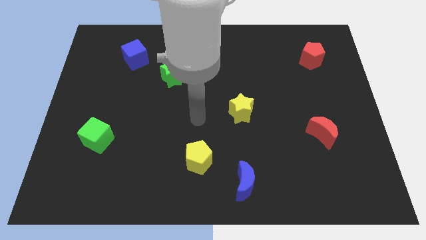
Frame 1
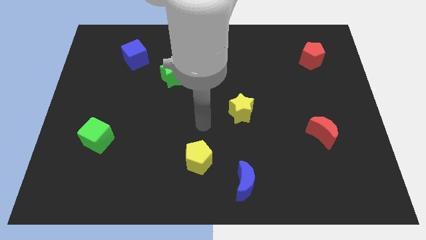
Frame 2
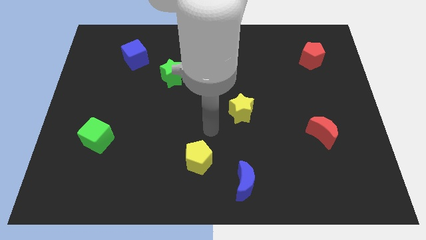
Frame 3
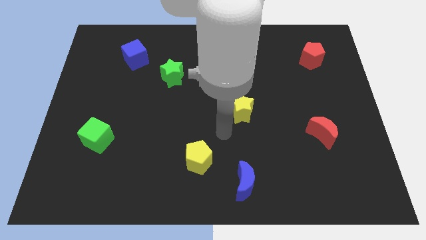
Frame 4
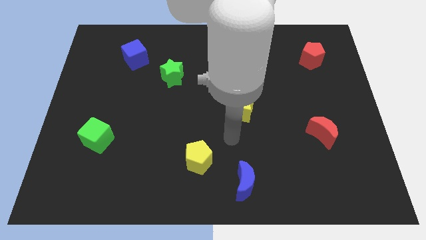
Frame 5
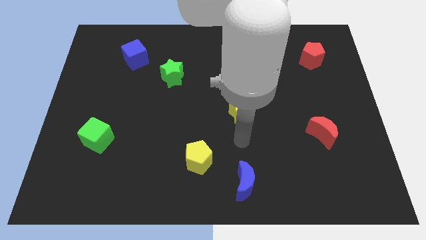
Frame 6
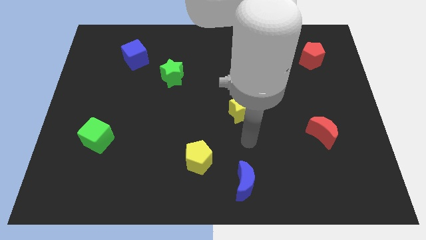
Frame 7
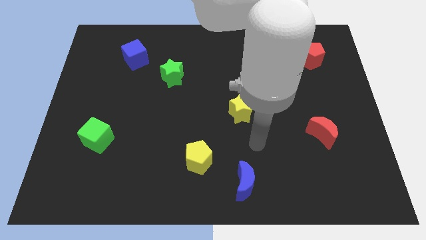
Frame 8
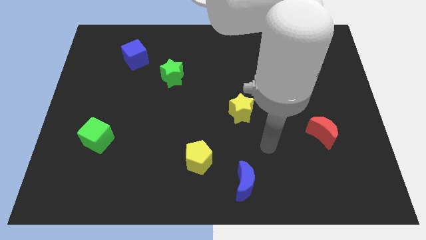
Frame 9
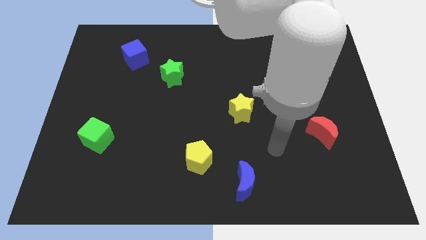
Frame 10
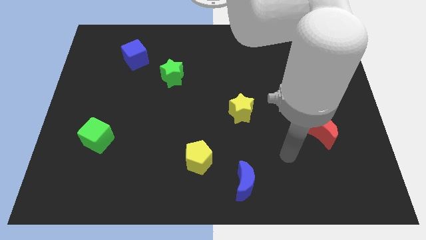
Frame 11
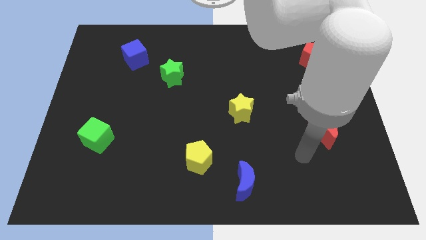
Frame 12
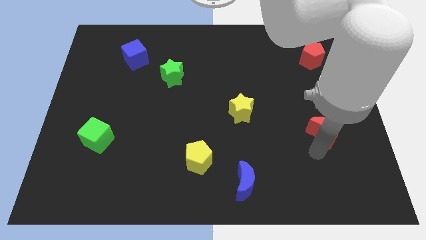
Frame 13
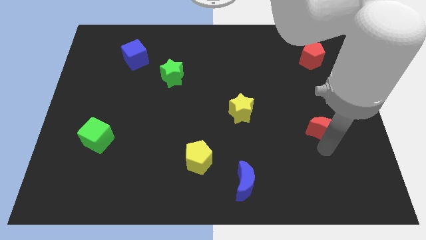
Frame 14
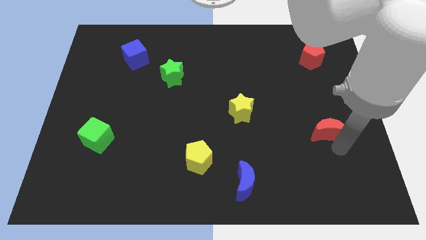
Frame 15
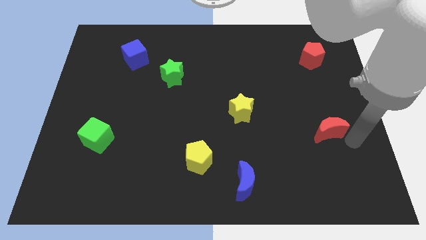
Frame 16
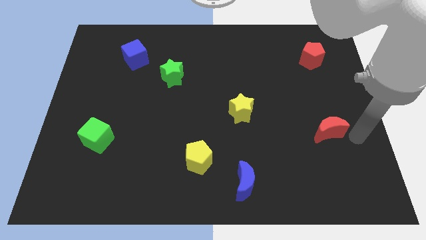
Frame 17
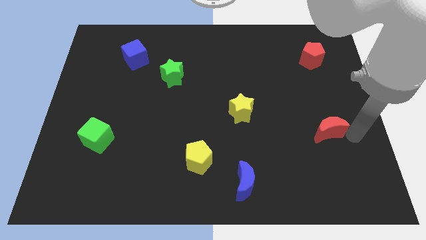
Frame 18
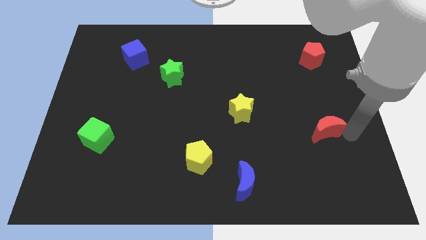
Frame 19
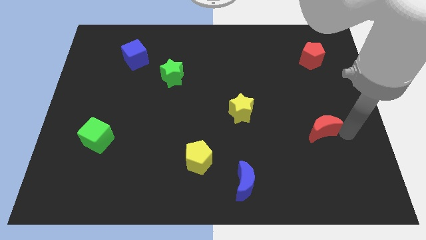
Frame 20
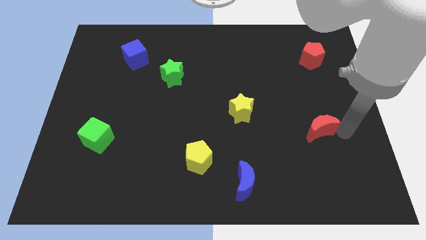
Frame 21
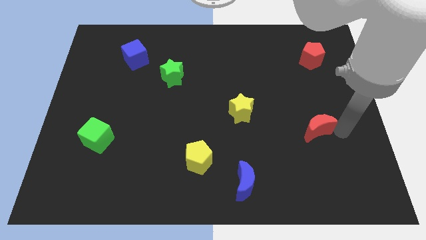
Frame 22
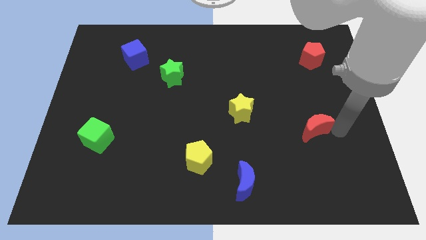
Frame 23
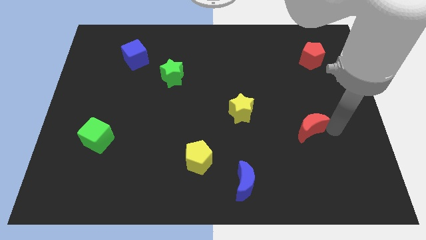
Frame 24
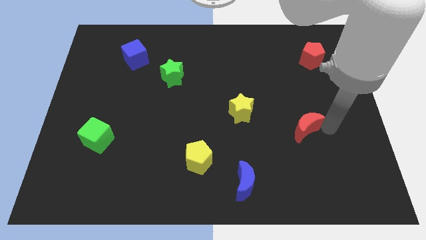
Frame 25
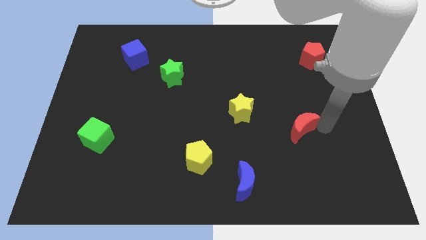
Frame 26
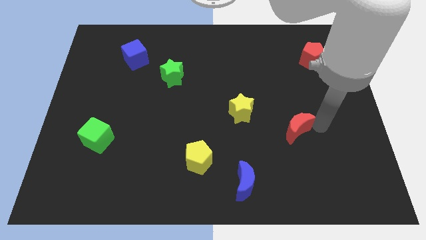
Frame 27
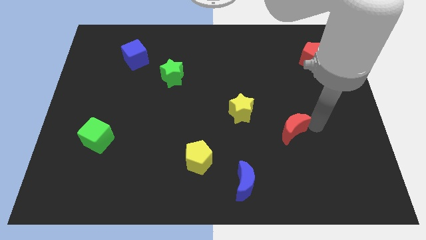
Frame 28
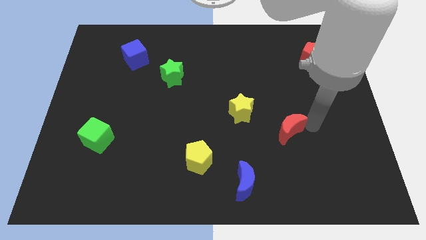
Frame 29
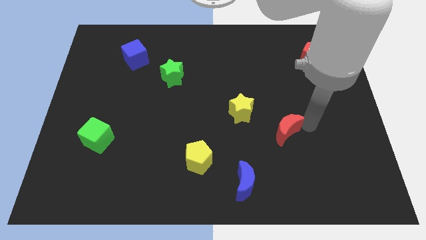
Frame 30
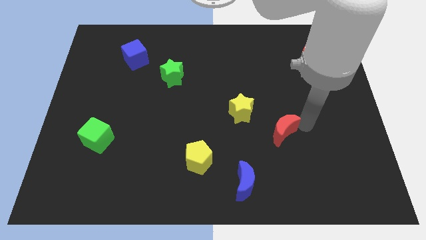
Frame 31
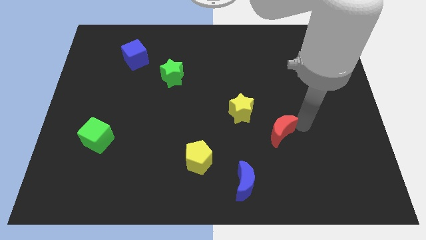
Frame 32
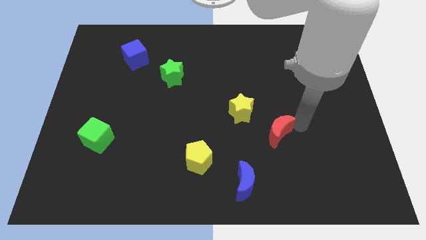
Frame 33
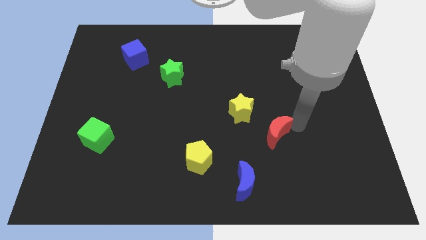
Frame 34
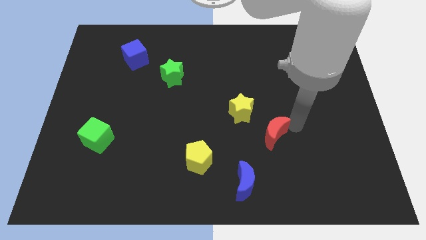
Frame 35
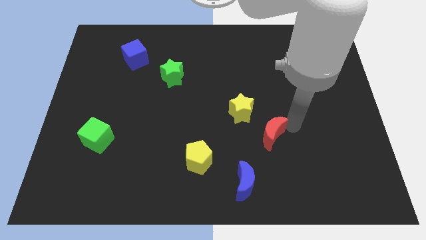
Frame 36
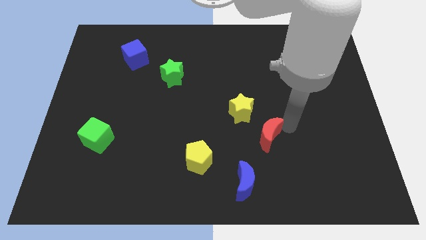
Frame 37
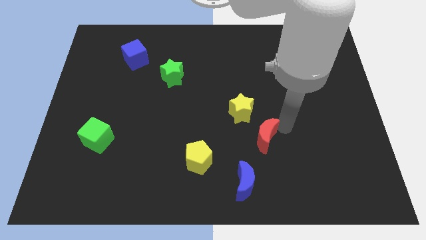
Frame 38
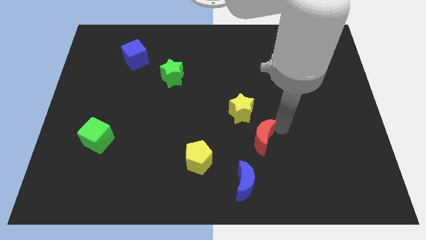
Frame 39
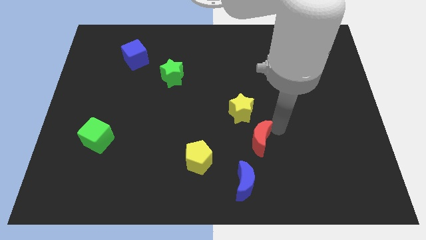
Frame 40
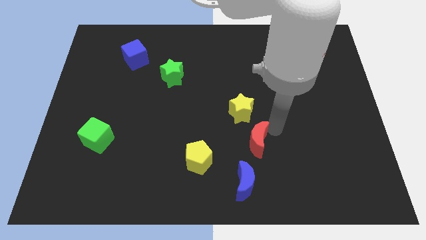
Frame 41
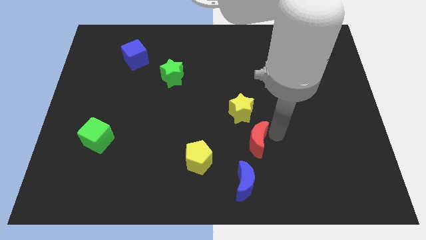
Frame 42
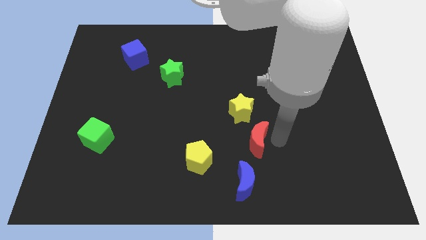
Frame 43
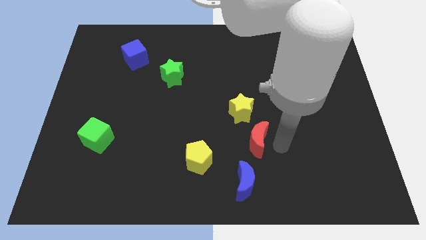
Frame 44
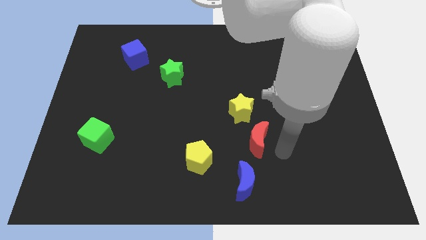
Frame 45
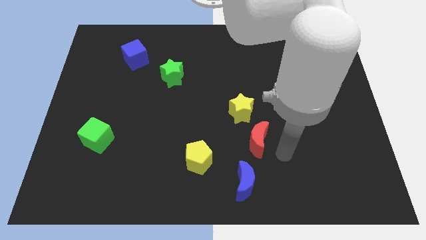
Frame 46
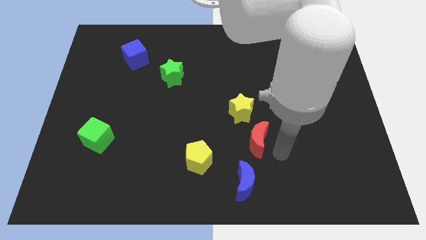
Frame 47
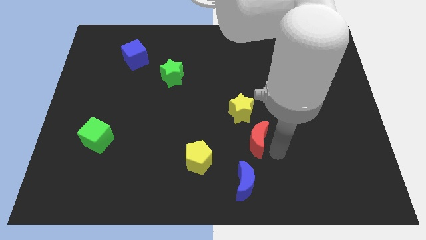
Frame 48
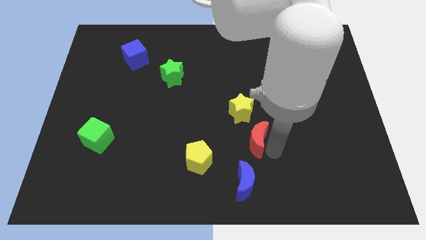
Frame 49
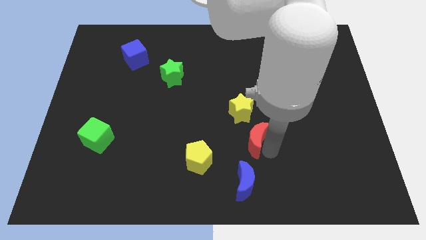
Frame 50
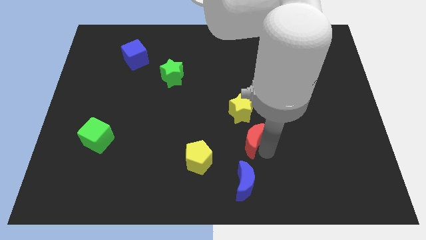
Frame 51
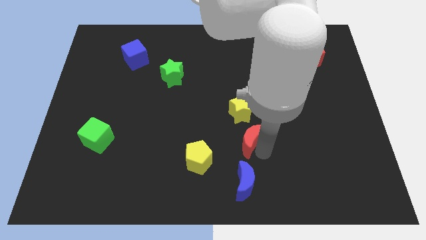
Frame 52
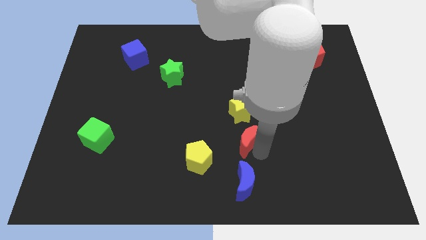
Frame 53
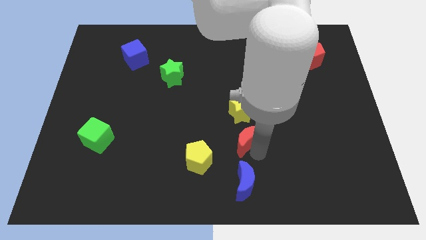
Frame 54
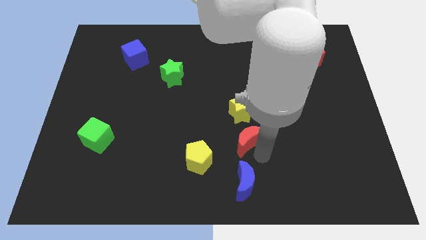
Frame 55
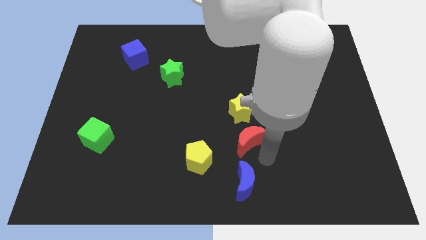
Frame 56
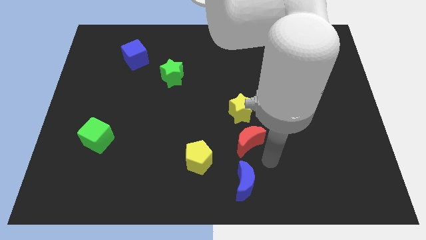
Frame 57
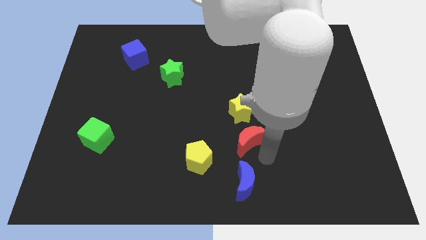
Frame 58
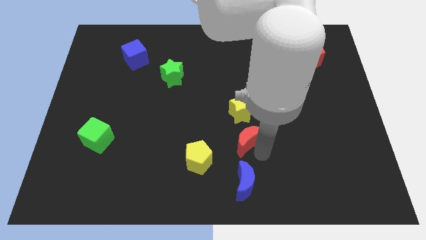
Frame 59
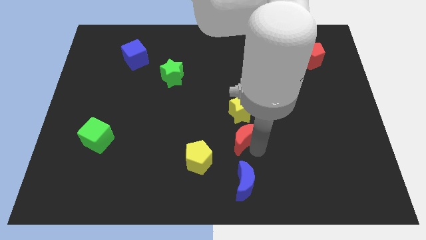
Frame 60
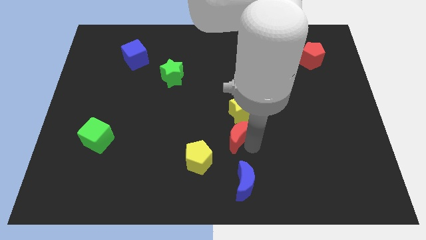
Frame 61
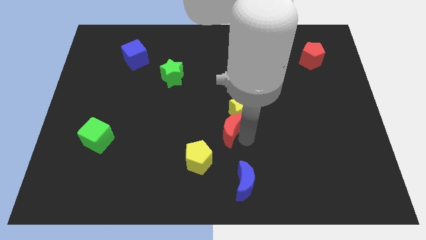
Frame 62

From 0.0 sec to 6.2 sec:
move the red moon to the left

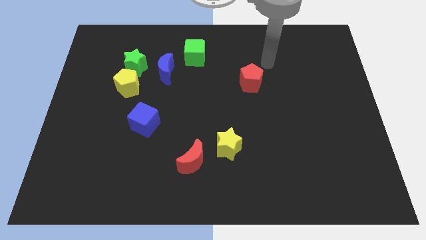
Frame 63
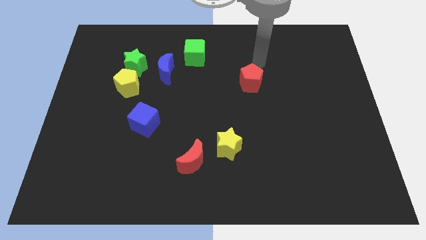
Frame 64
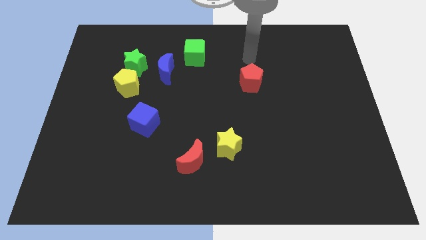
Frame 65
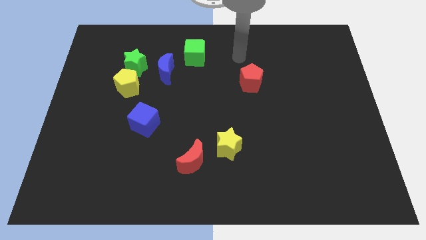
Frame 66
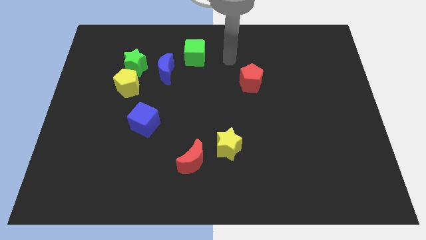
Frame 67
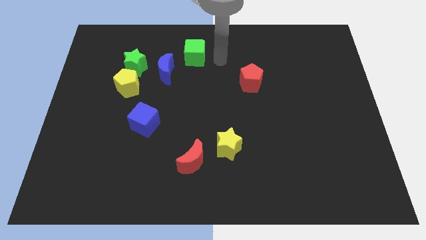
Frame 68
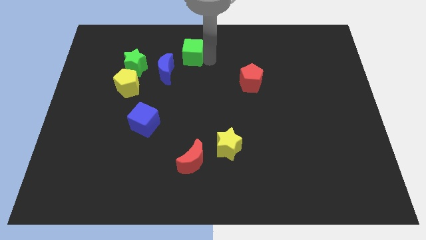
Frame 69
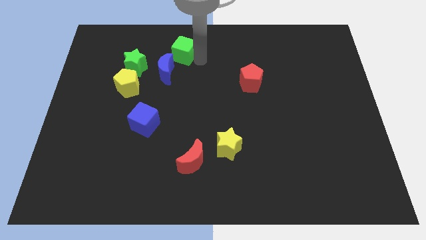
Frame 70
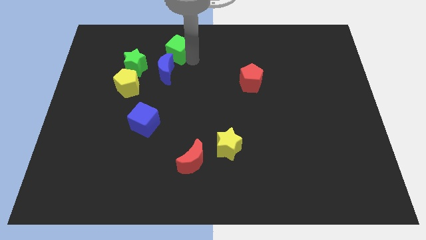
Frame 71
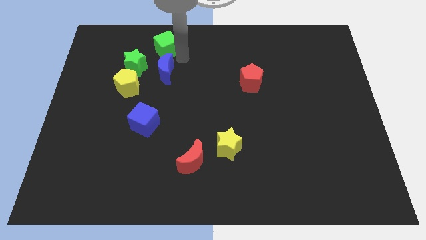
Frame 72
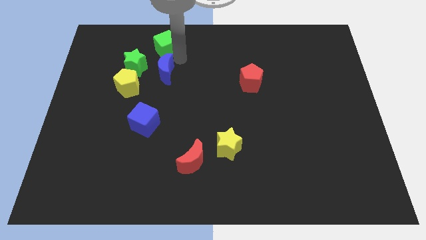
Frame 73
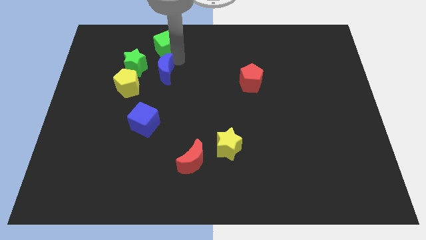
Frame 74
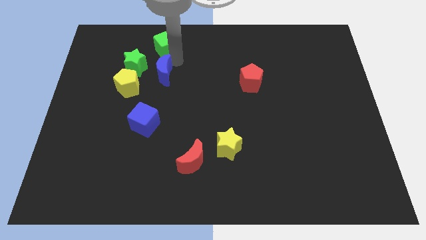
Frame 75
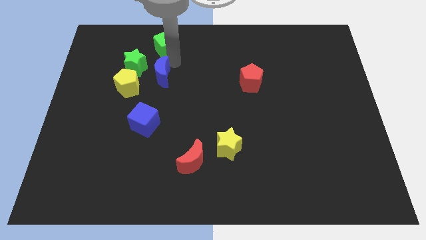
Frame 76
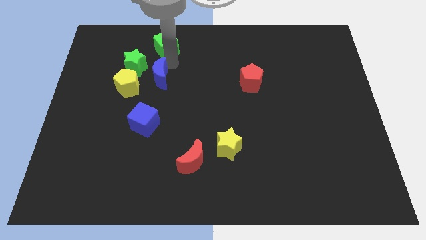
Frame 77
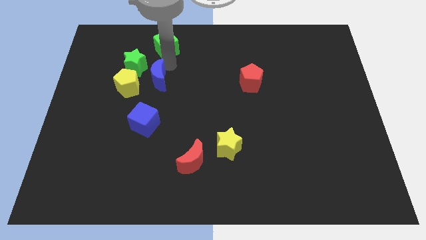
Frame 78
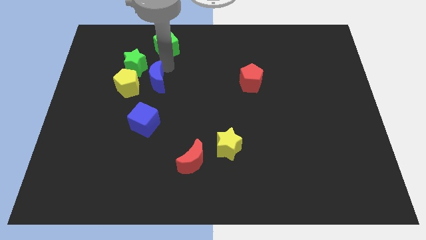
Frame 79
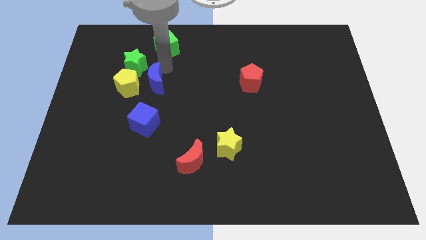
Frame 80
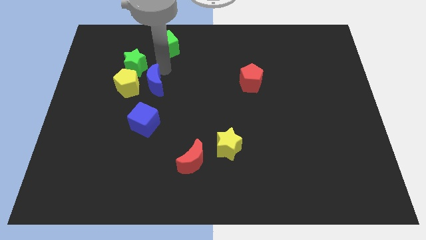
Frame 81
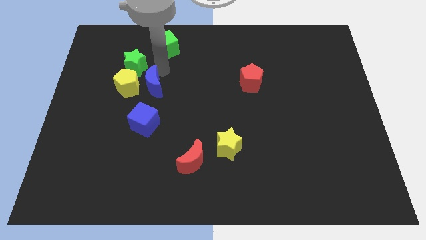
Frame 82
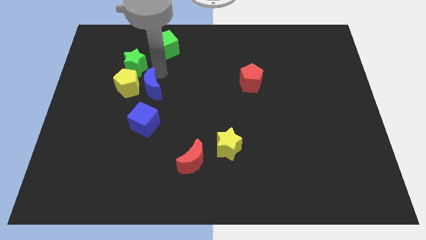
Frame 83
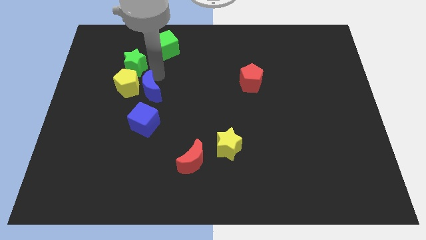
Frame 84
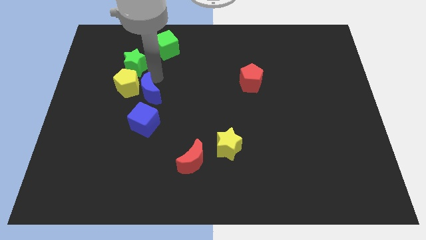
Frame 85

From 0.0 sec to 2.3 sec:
slightly slide the blue moon diagonally downwards and left
